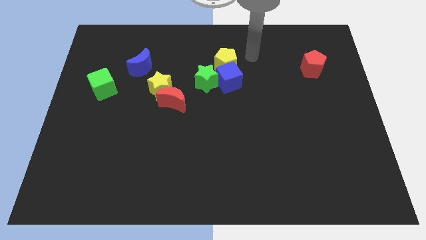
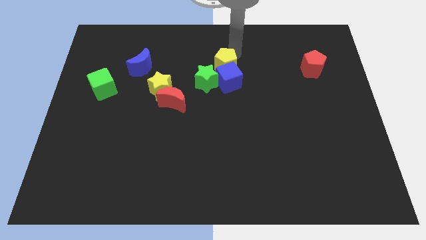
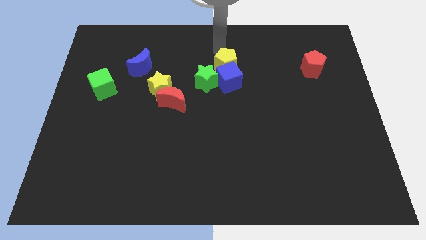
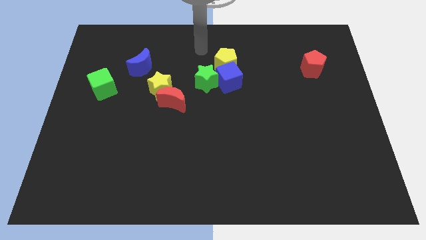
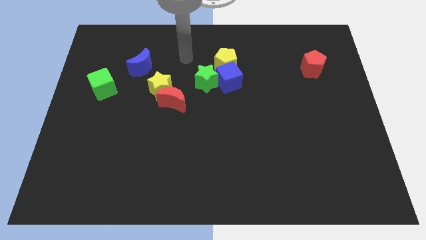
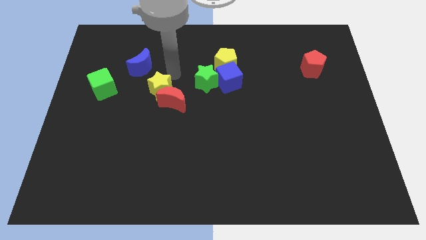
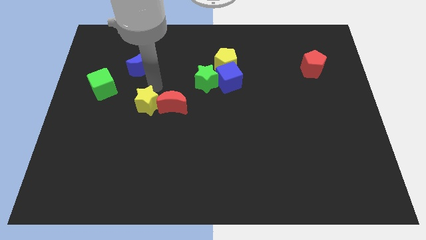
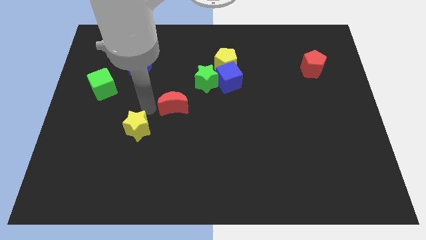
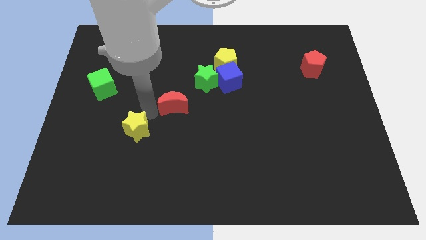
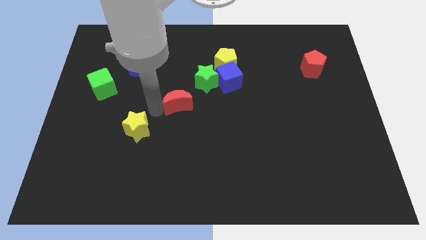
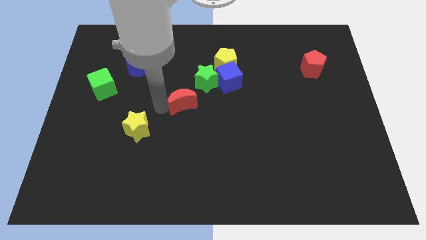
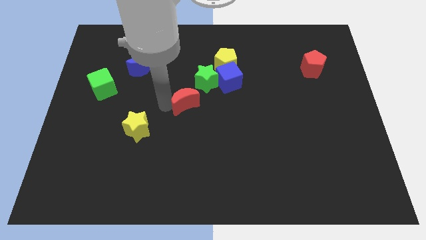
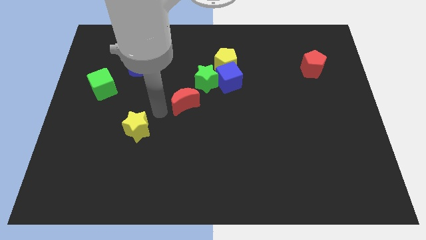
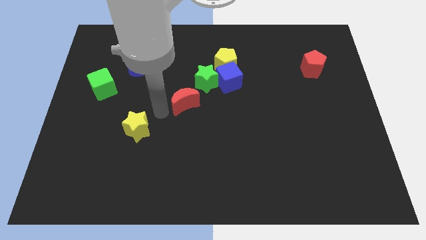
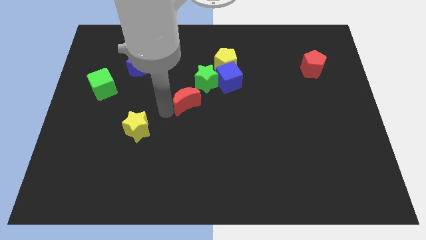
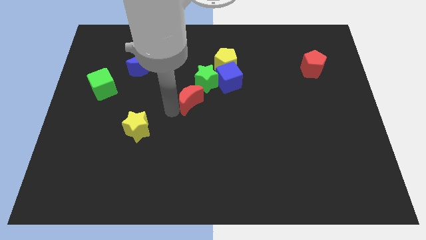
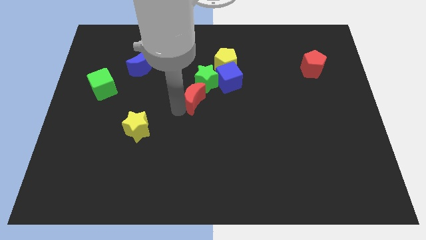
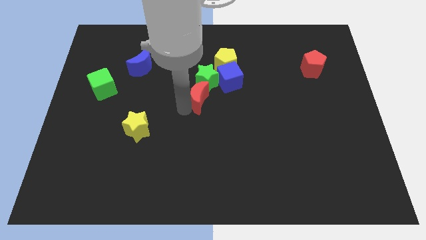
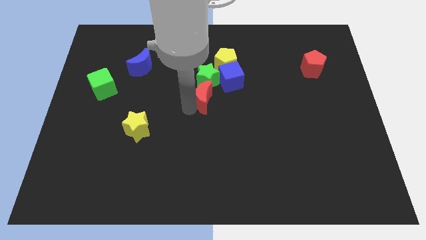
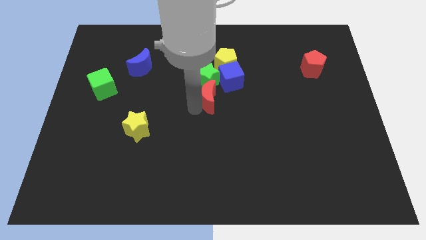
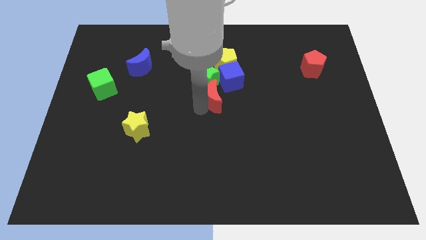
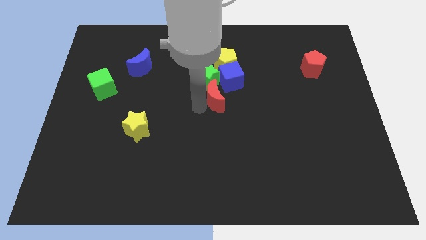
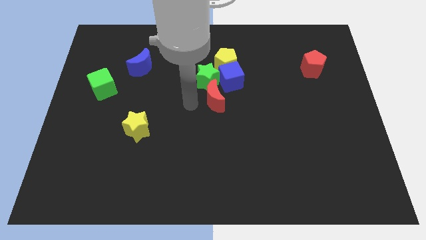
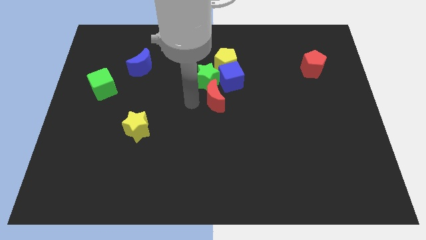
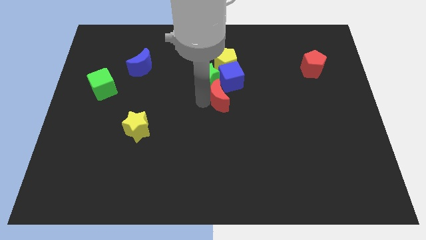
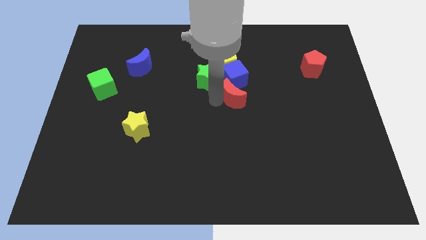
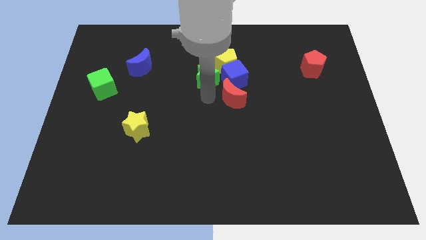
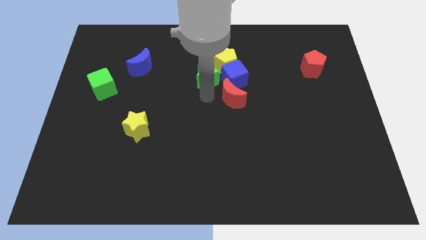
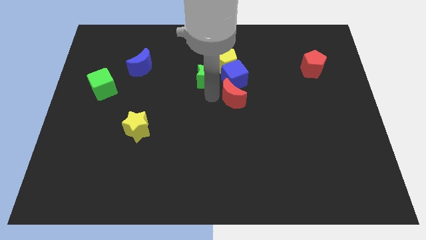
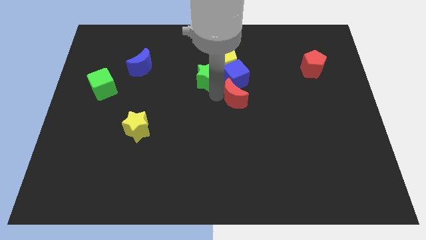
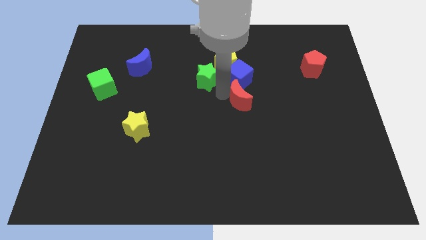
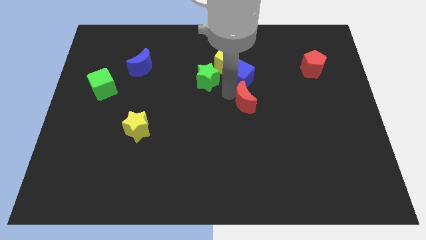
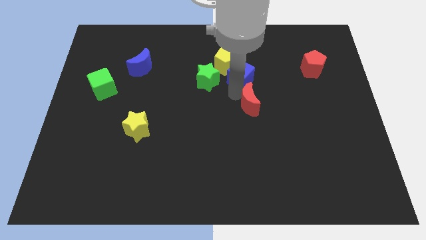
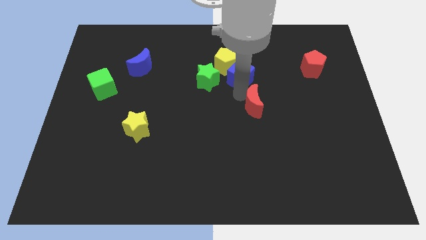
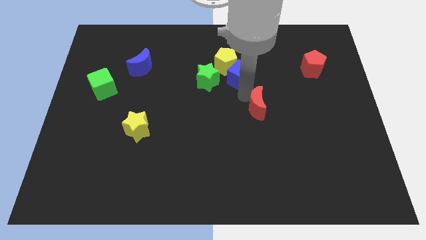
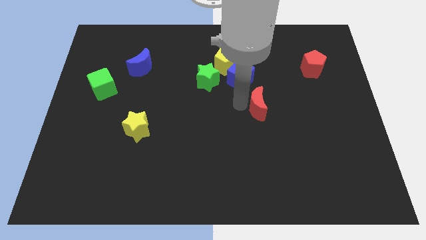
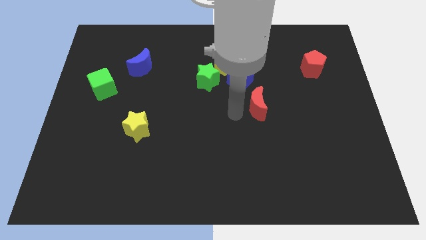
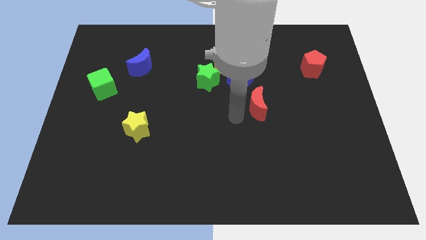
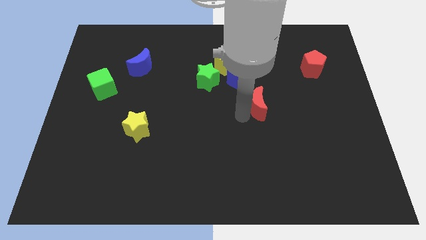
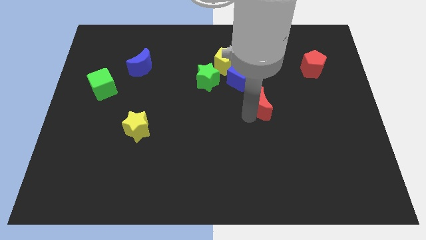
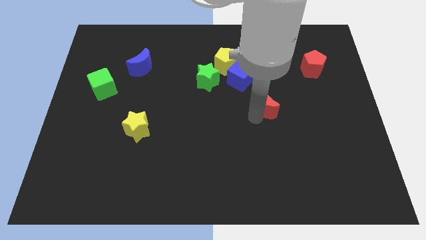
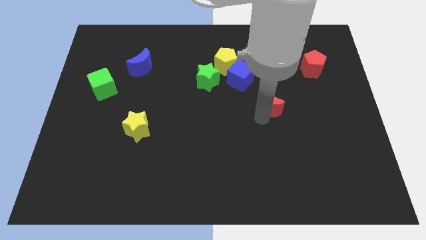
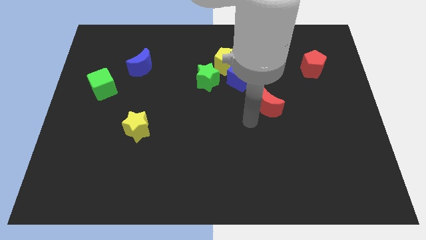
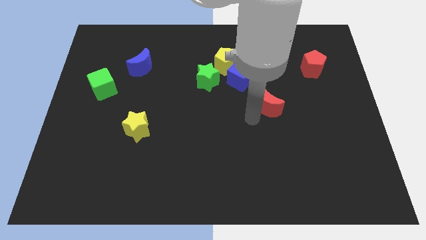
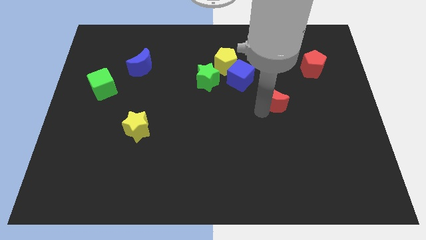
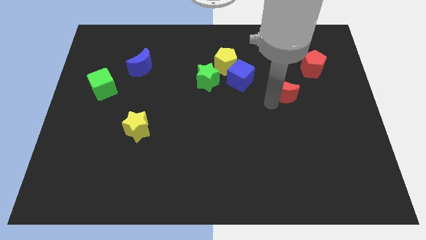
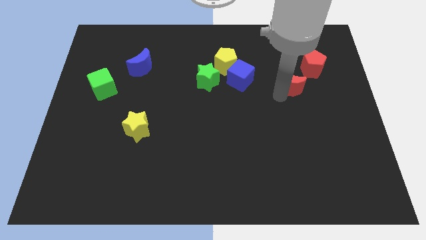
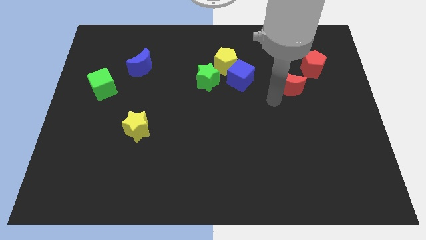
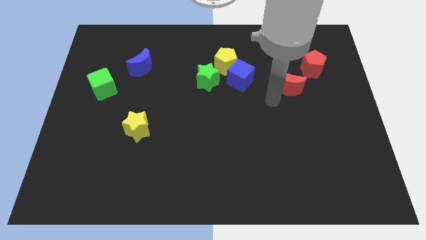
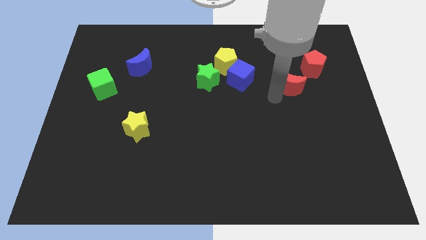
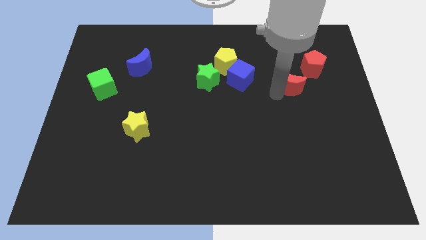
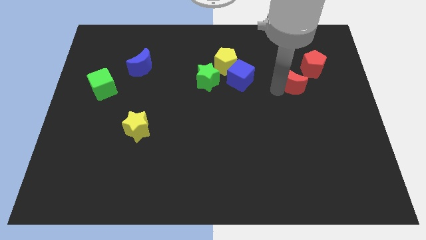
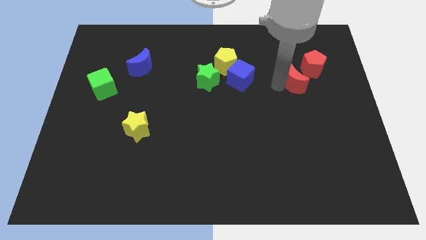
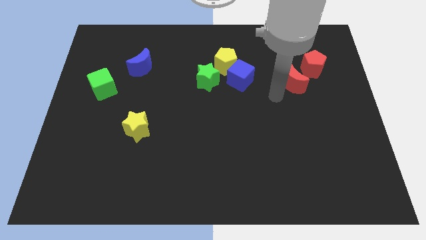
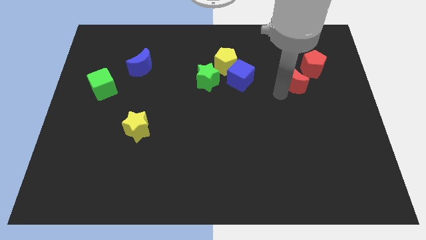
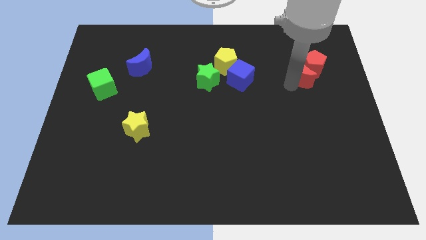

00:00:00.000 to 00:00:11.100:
slide the red moon close to the red pentagon

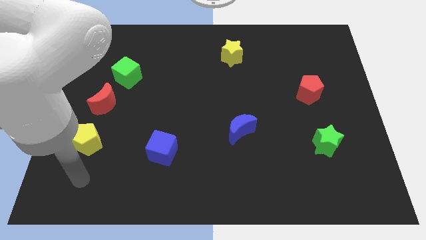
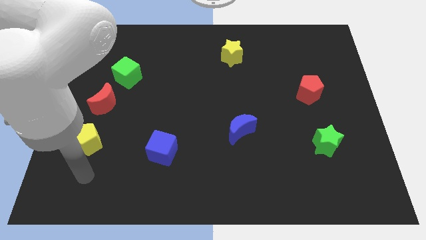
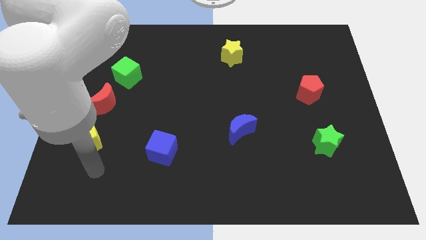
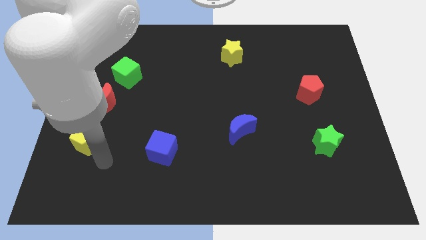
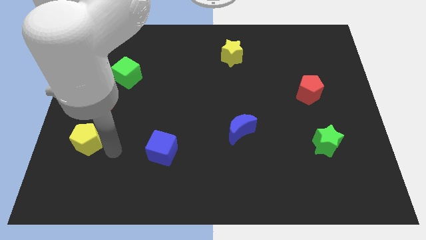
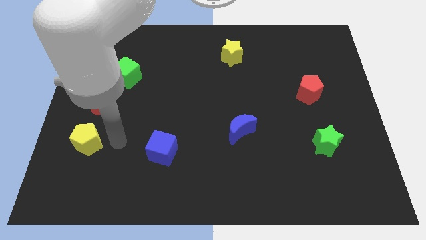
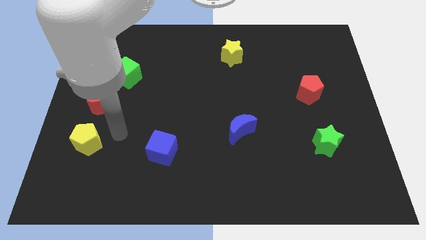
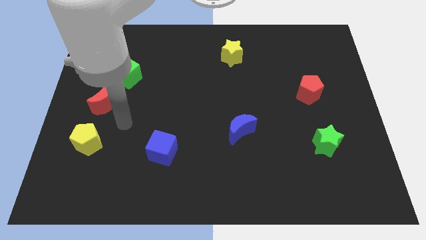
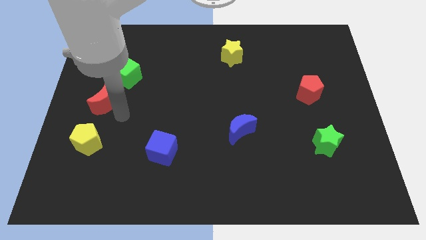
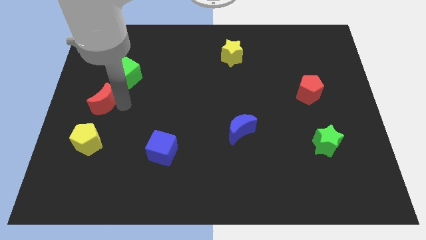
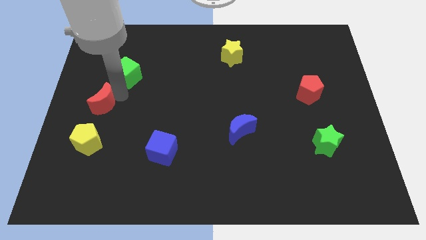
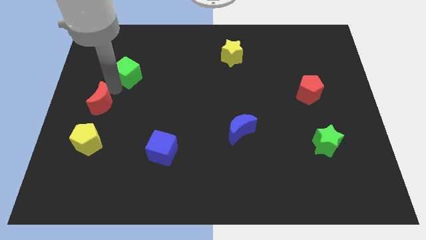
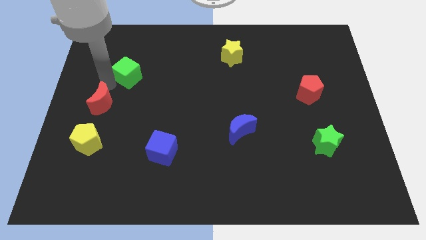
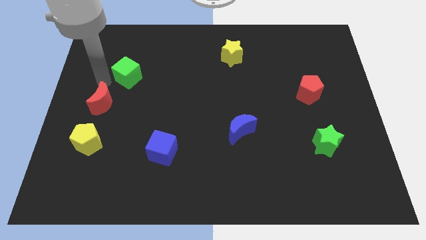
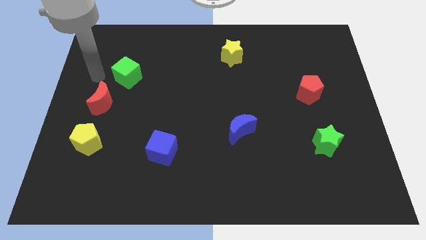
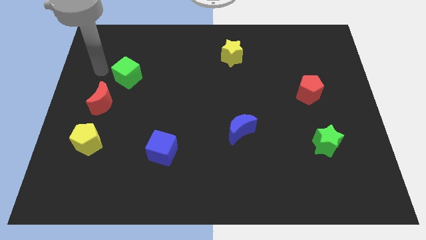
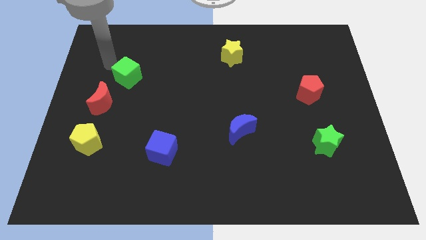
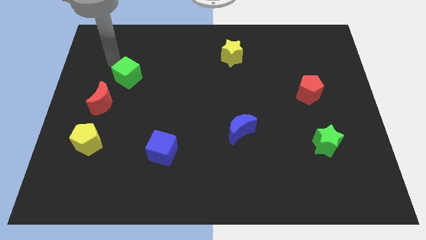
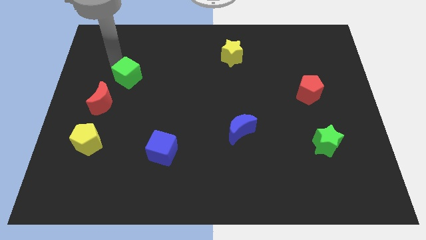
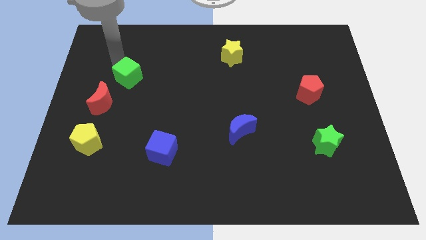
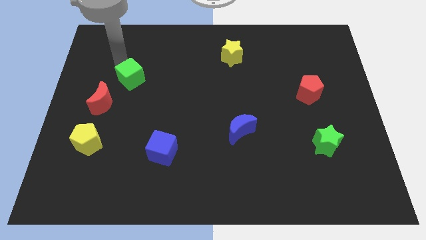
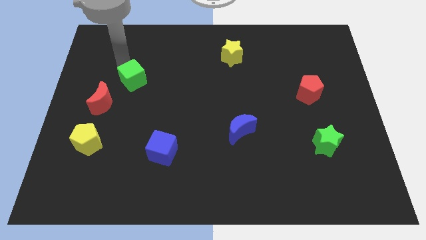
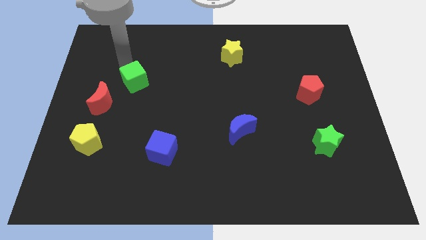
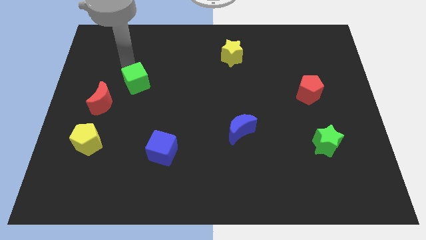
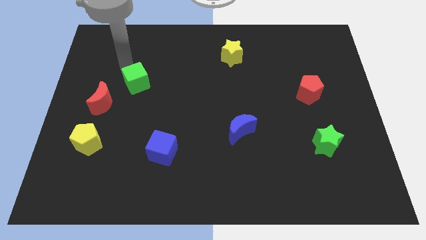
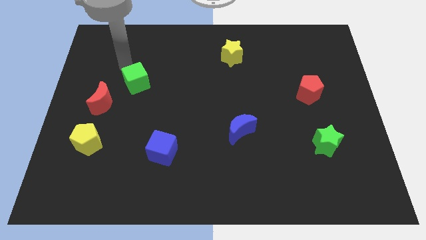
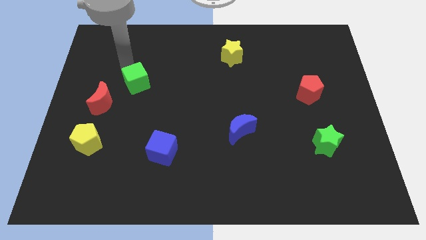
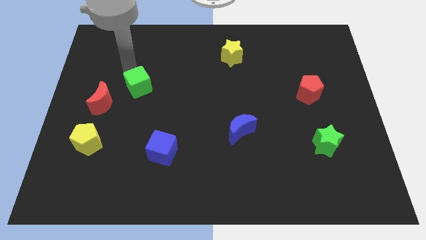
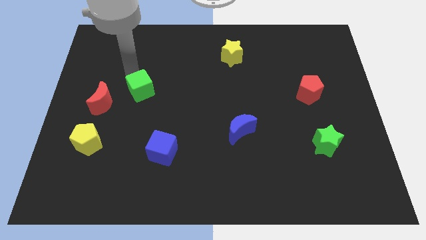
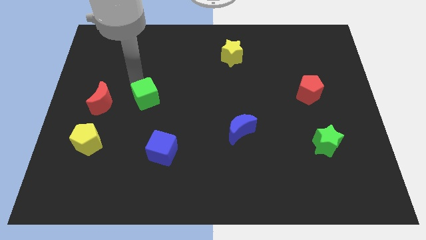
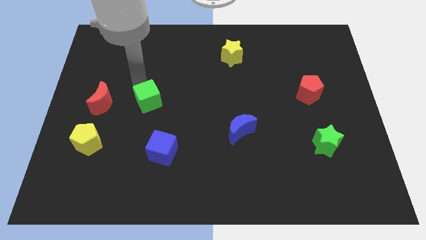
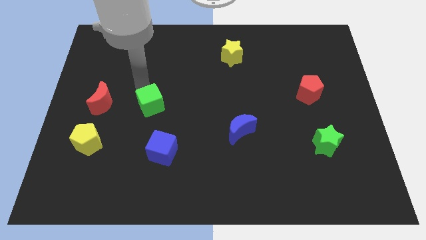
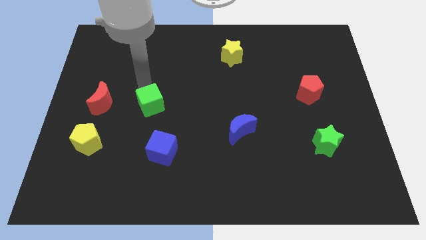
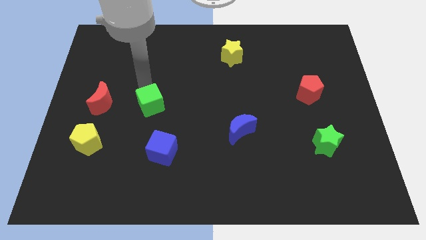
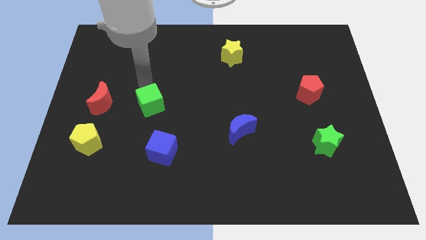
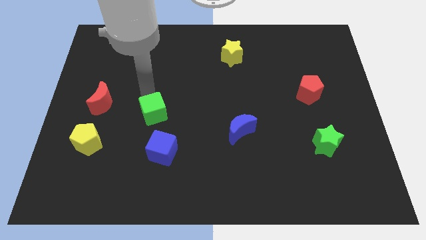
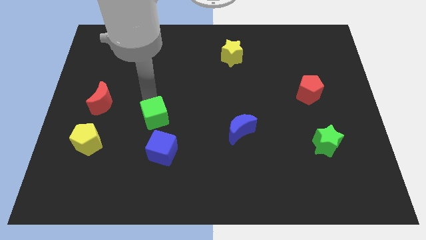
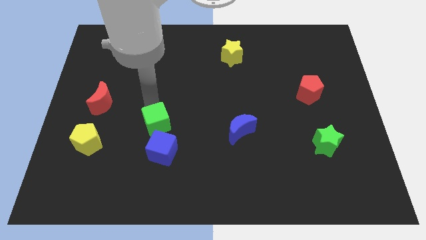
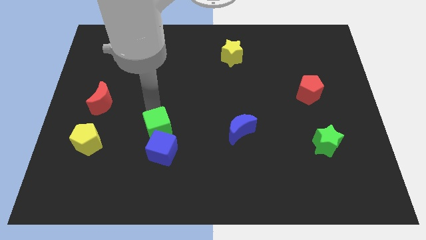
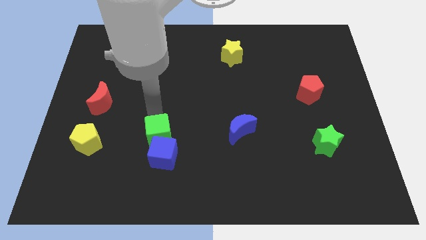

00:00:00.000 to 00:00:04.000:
slide the green cube close to the blue cube
